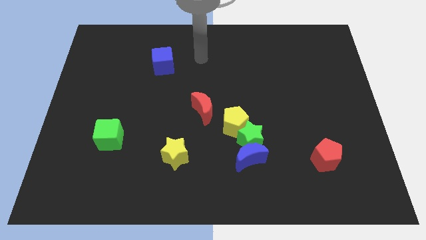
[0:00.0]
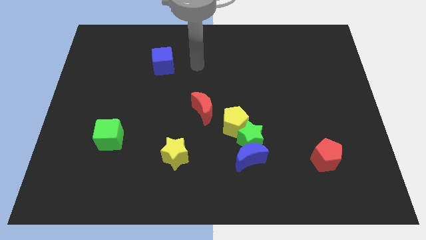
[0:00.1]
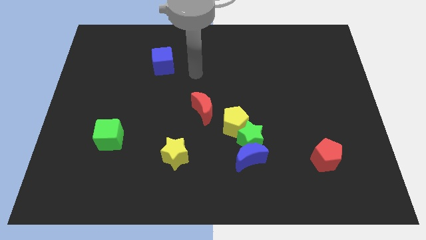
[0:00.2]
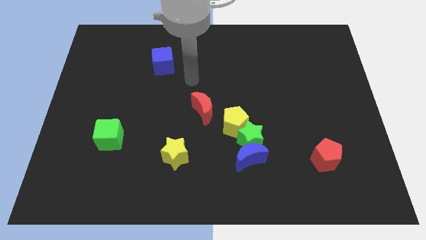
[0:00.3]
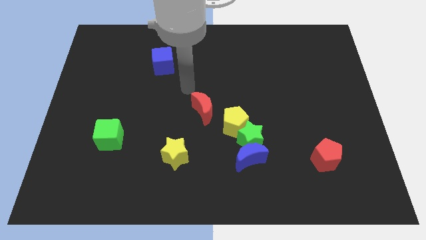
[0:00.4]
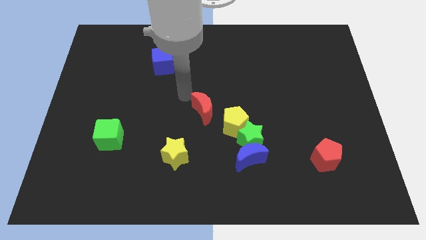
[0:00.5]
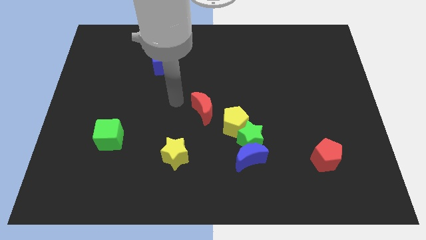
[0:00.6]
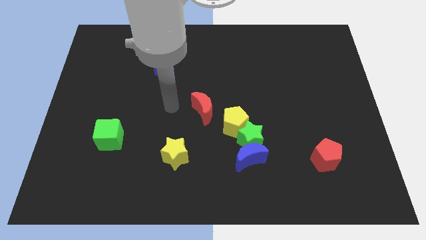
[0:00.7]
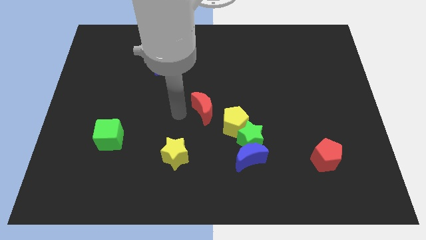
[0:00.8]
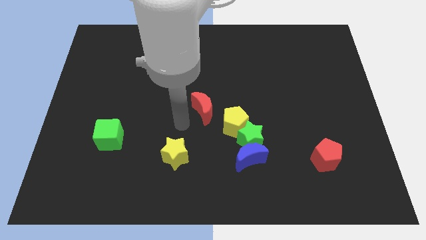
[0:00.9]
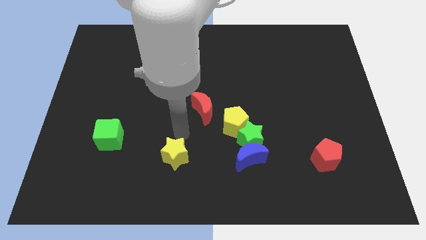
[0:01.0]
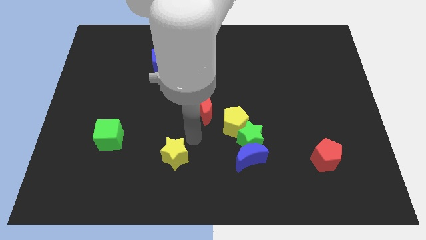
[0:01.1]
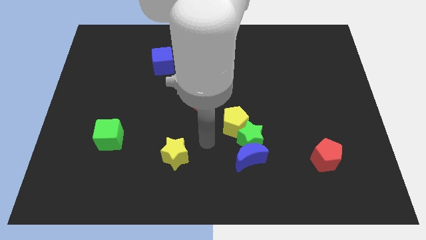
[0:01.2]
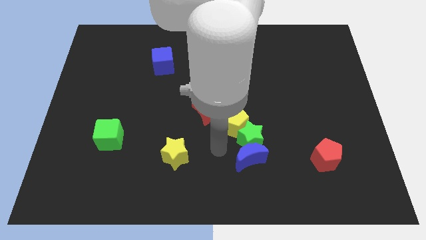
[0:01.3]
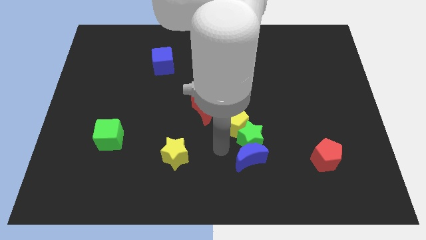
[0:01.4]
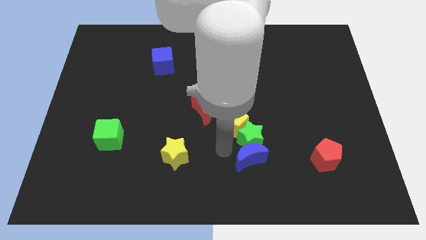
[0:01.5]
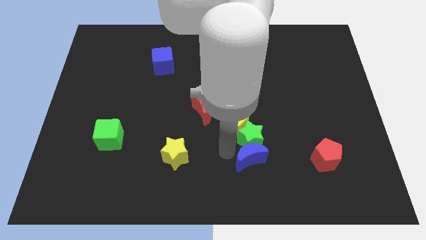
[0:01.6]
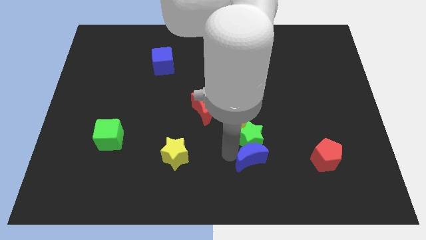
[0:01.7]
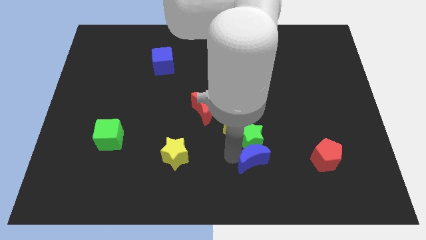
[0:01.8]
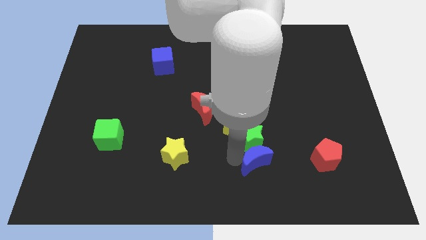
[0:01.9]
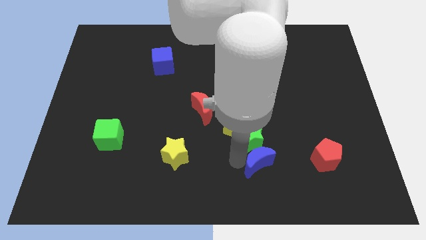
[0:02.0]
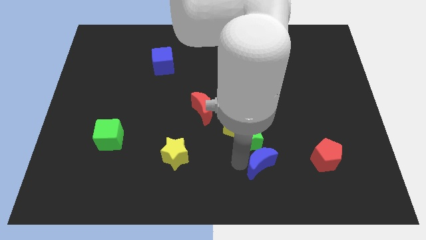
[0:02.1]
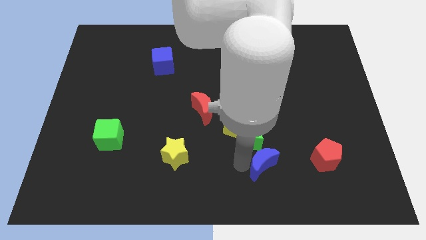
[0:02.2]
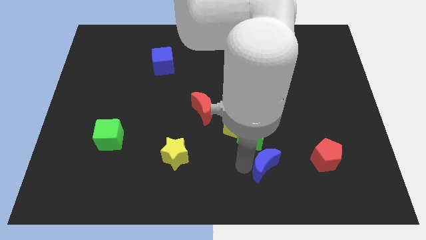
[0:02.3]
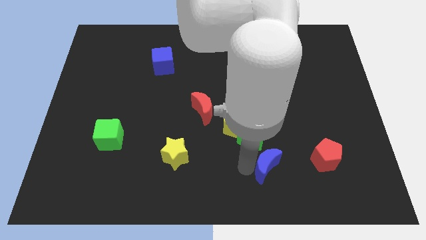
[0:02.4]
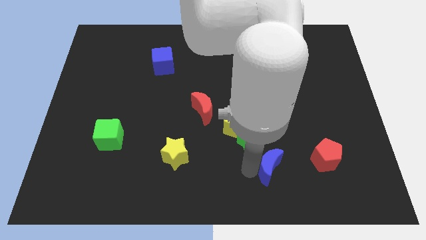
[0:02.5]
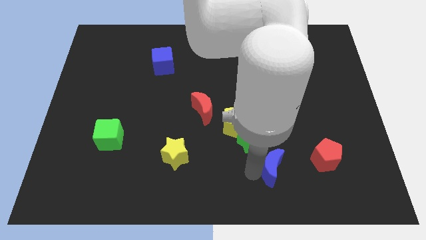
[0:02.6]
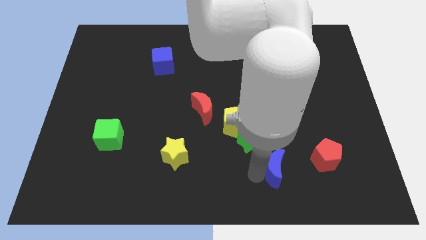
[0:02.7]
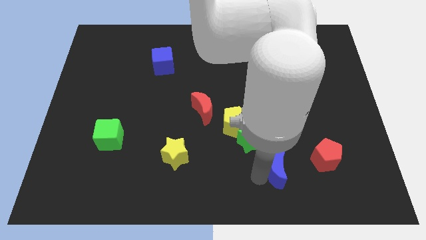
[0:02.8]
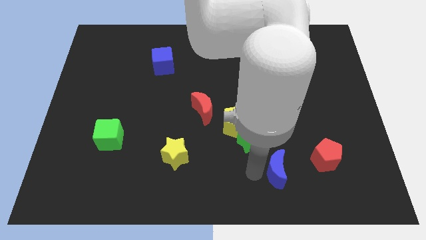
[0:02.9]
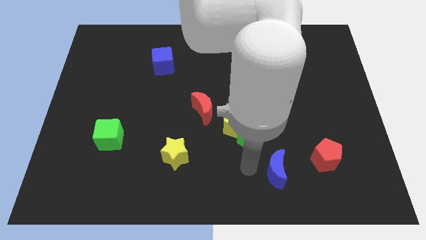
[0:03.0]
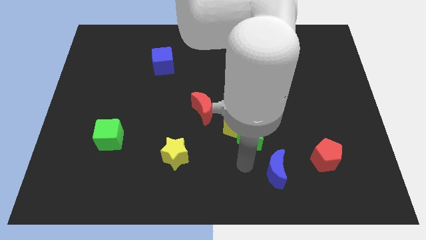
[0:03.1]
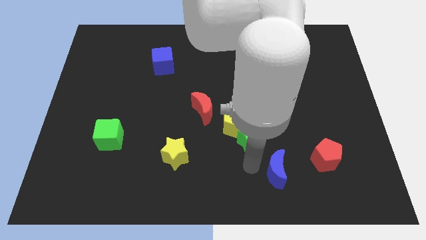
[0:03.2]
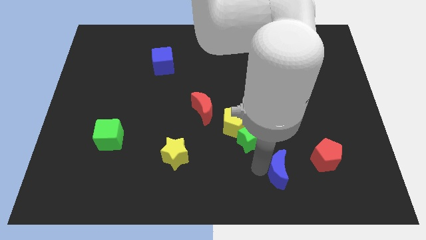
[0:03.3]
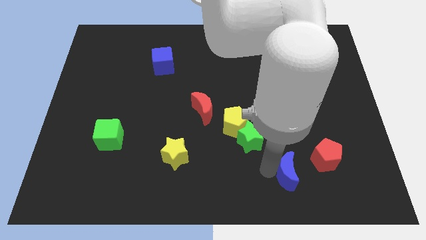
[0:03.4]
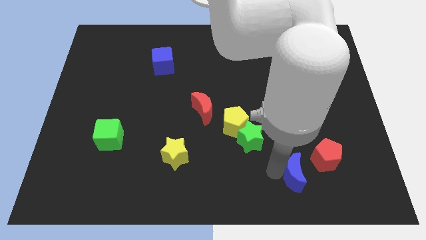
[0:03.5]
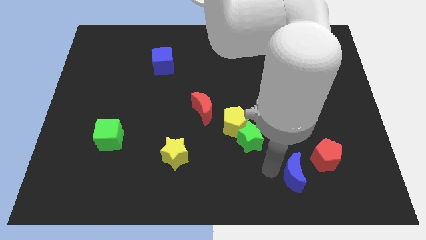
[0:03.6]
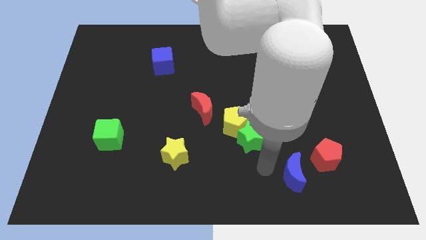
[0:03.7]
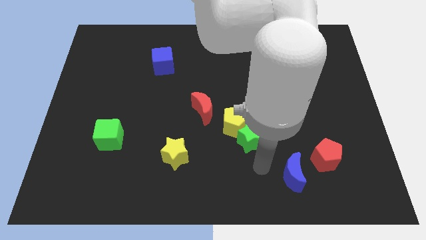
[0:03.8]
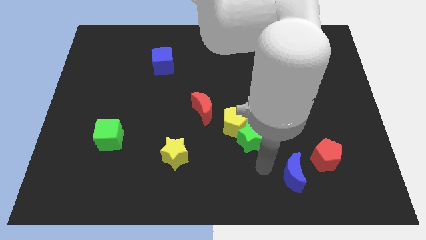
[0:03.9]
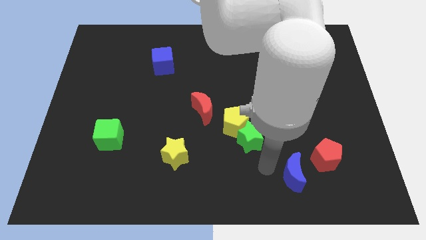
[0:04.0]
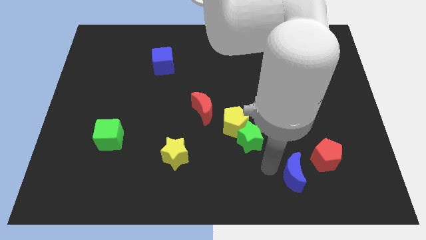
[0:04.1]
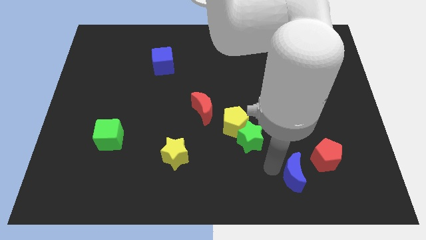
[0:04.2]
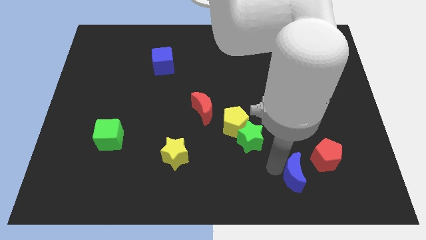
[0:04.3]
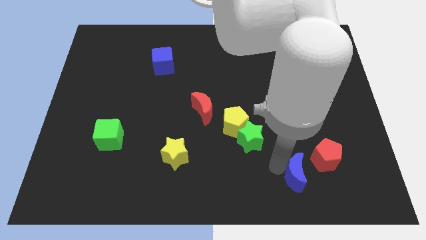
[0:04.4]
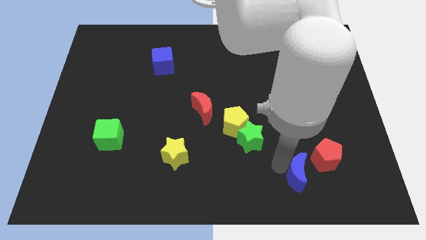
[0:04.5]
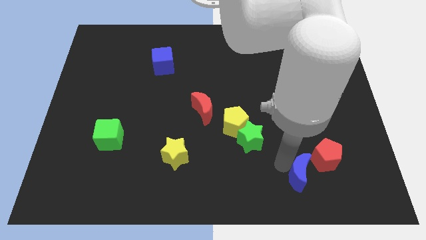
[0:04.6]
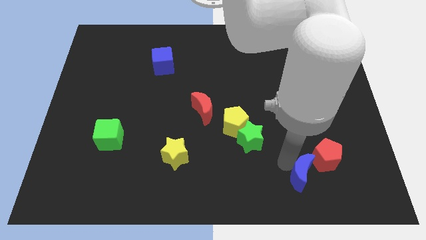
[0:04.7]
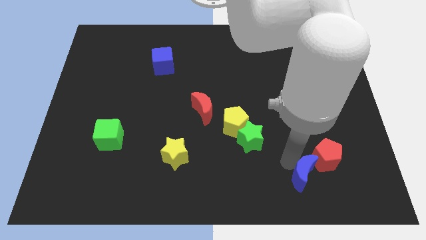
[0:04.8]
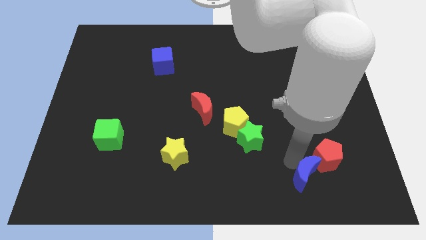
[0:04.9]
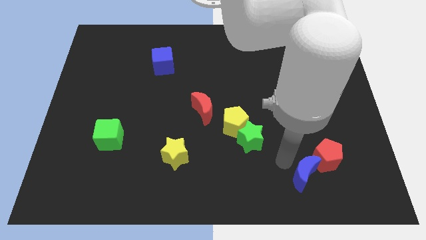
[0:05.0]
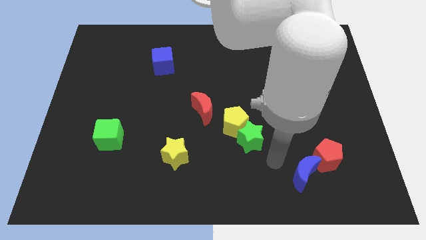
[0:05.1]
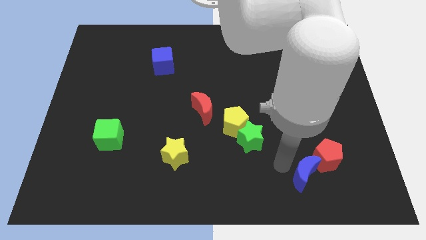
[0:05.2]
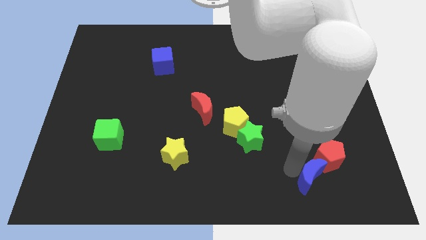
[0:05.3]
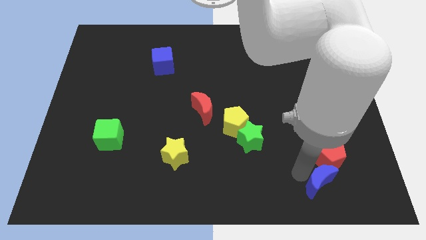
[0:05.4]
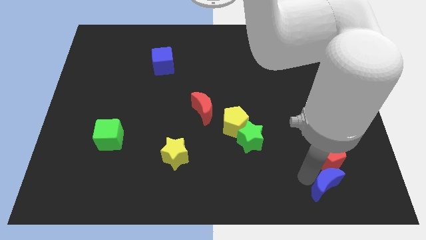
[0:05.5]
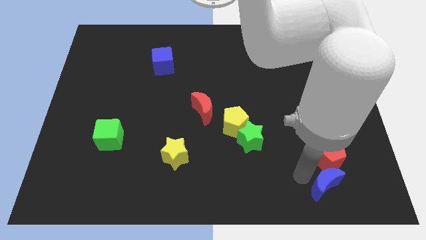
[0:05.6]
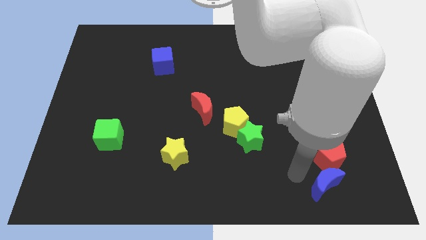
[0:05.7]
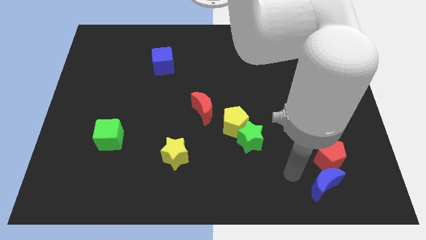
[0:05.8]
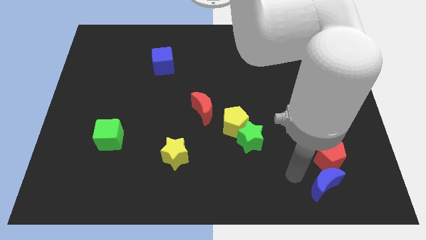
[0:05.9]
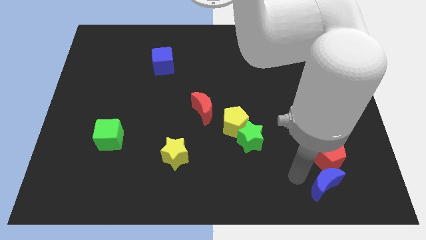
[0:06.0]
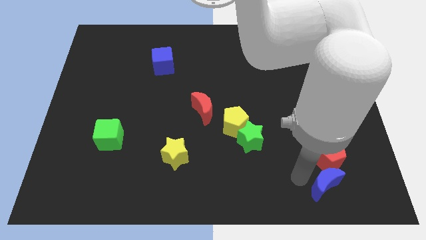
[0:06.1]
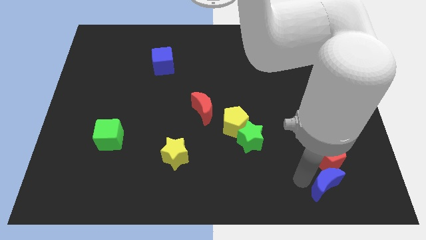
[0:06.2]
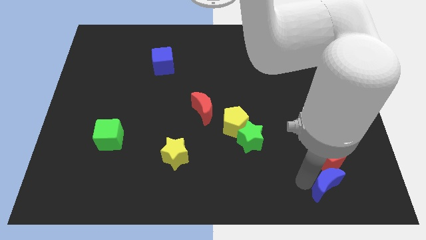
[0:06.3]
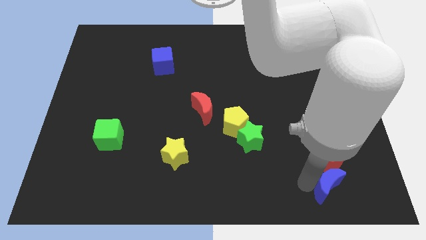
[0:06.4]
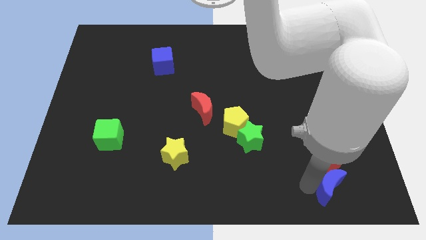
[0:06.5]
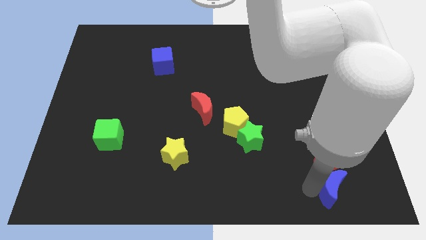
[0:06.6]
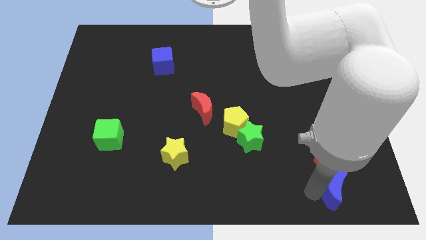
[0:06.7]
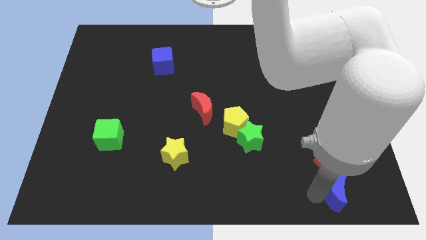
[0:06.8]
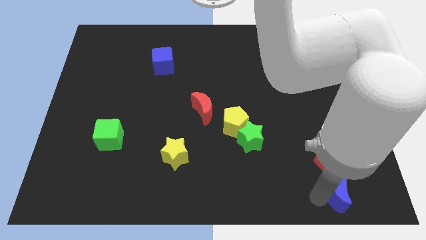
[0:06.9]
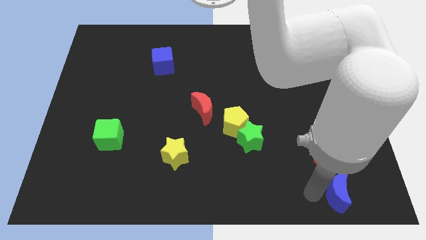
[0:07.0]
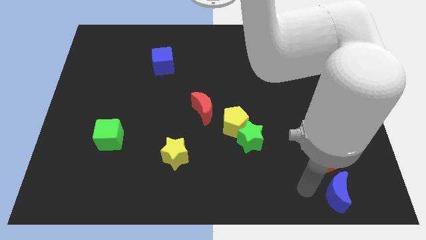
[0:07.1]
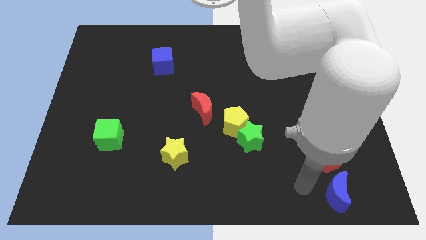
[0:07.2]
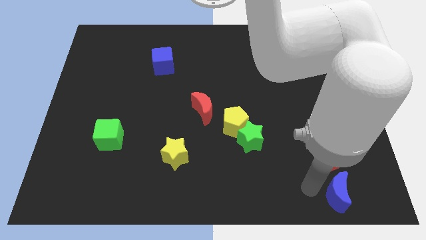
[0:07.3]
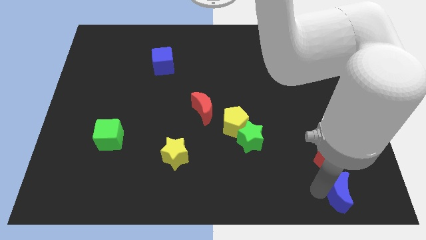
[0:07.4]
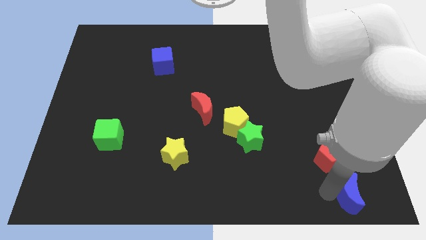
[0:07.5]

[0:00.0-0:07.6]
slide the blue moon to the bottom right

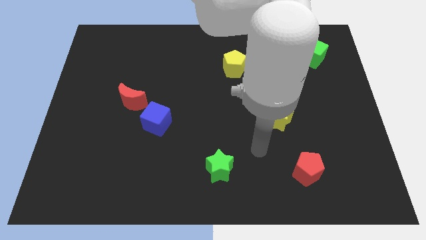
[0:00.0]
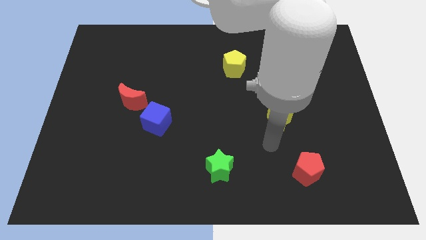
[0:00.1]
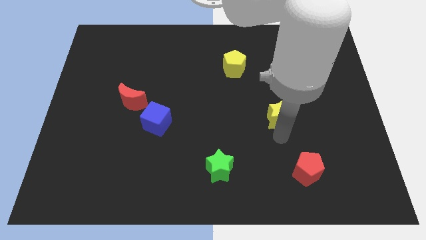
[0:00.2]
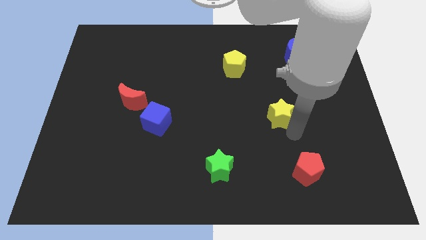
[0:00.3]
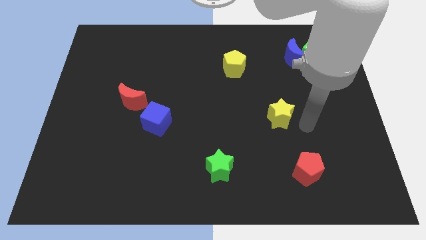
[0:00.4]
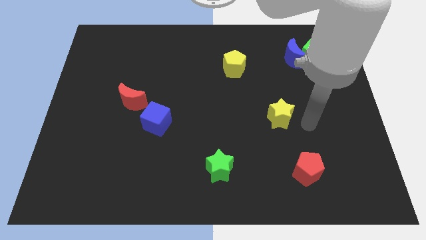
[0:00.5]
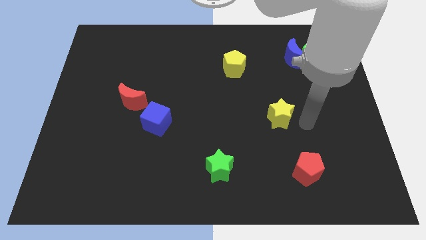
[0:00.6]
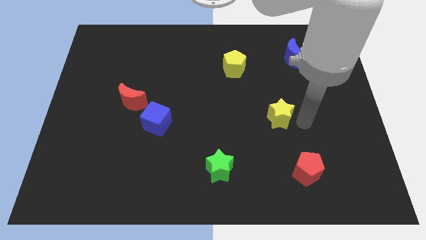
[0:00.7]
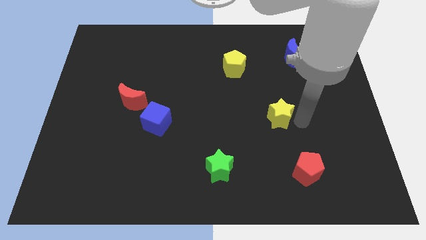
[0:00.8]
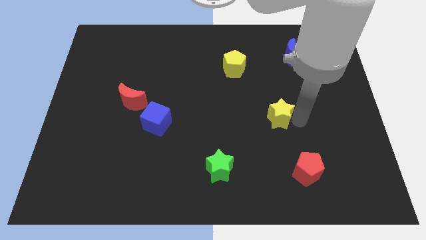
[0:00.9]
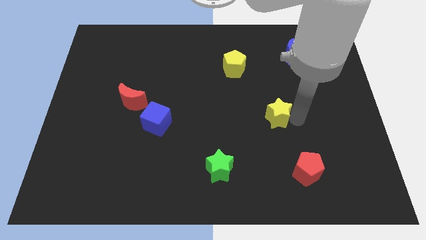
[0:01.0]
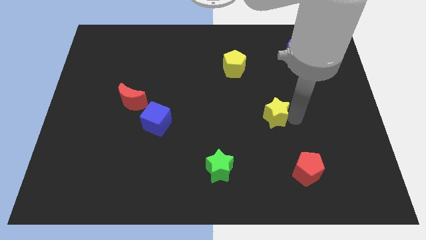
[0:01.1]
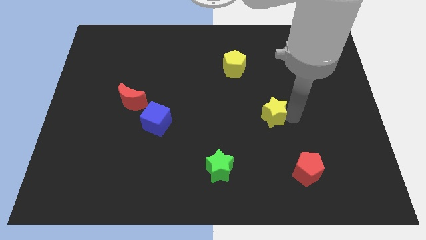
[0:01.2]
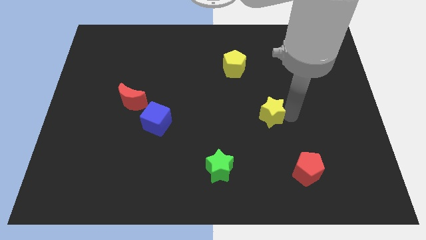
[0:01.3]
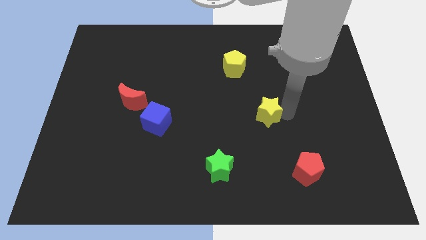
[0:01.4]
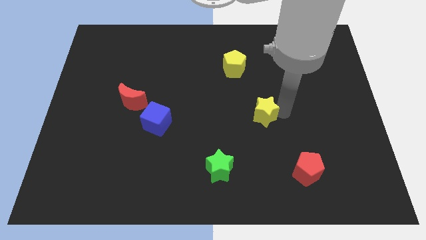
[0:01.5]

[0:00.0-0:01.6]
slide the yellow star to the middle of the board
